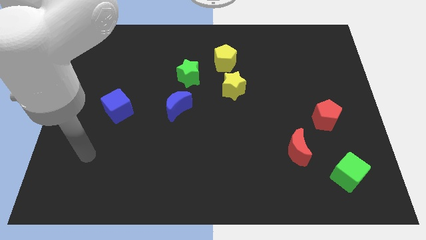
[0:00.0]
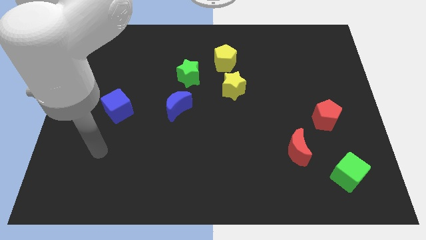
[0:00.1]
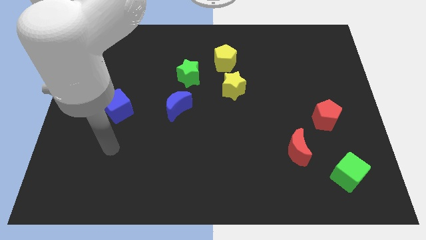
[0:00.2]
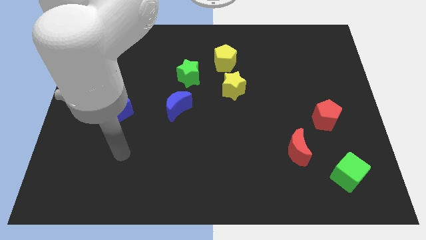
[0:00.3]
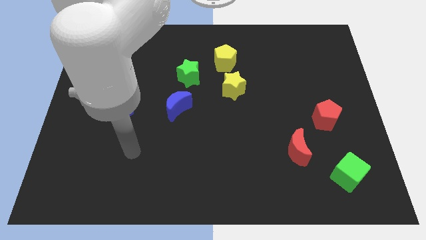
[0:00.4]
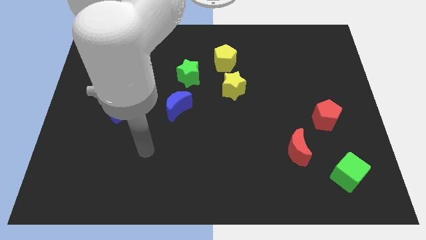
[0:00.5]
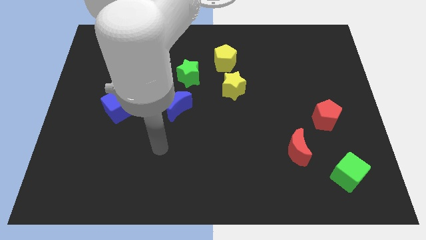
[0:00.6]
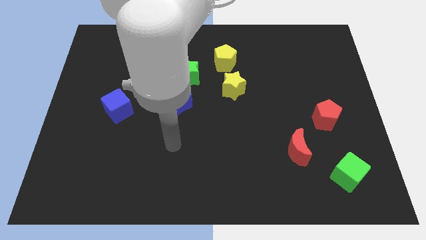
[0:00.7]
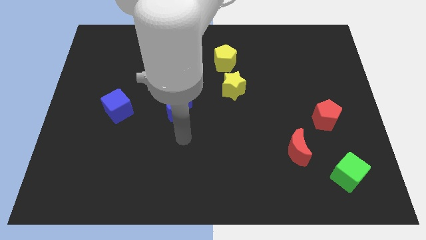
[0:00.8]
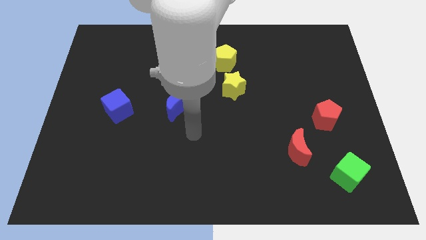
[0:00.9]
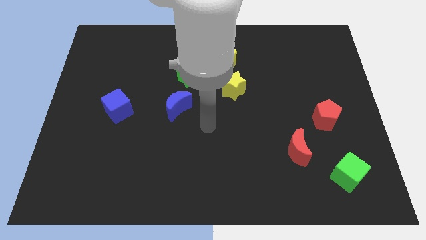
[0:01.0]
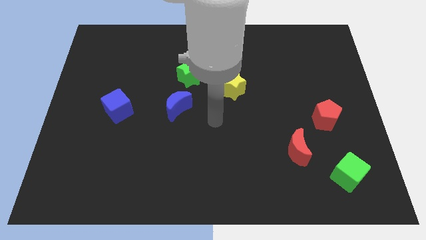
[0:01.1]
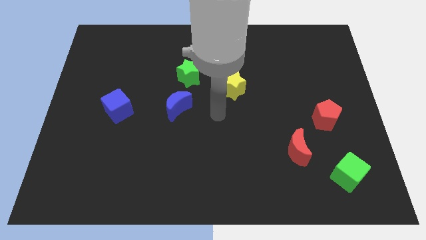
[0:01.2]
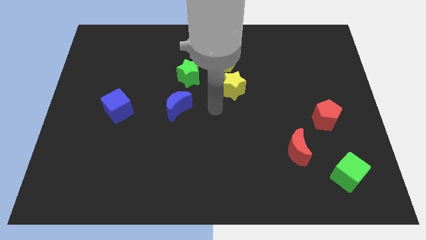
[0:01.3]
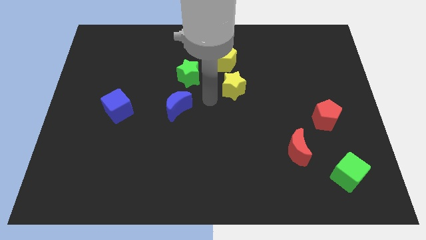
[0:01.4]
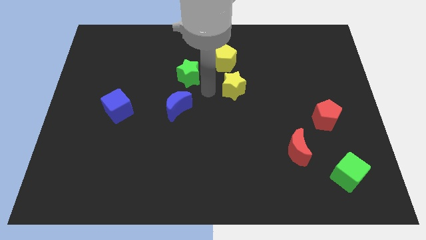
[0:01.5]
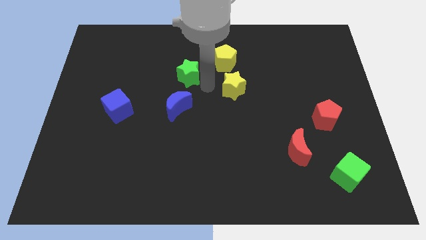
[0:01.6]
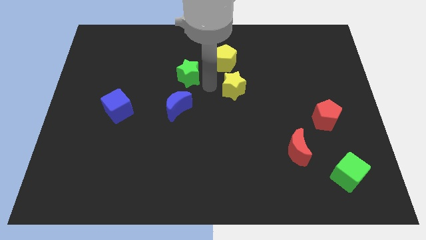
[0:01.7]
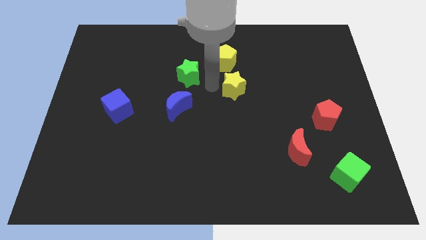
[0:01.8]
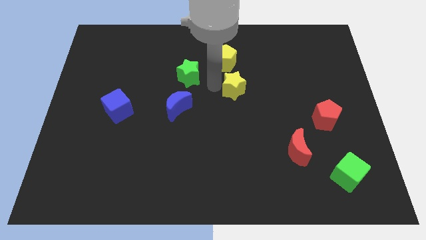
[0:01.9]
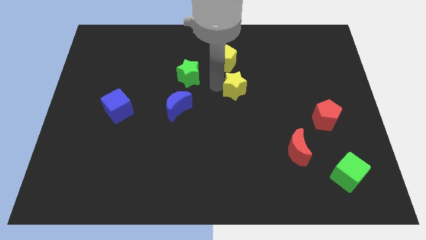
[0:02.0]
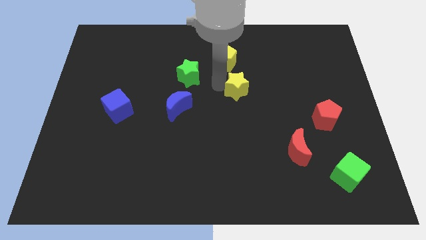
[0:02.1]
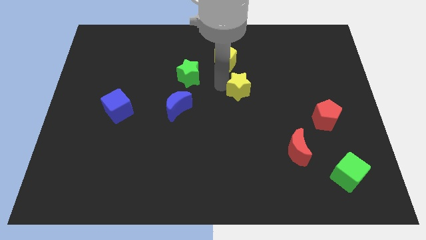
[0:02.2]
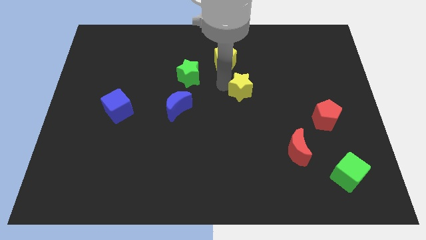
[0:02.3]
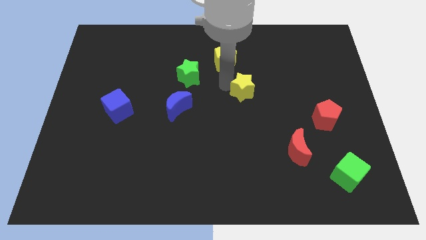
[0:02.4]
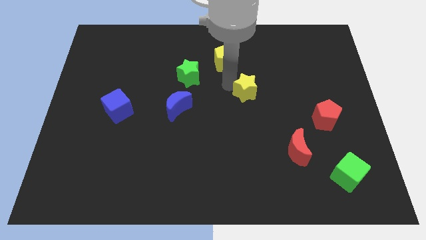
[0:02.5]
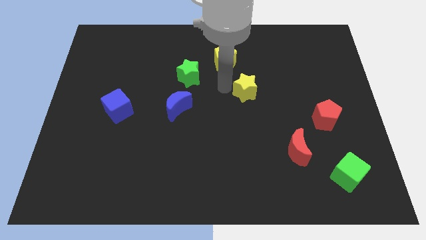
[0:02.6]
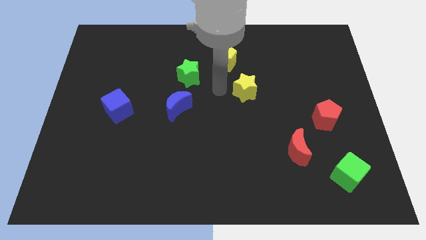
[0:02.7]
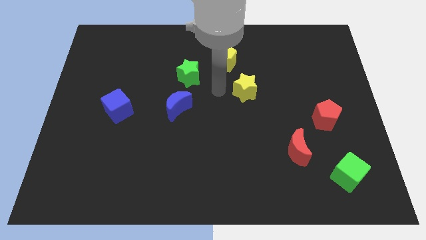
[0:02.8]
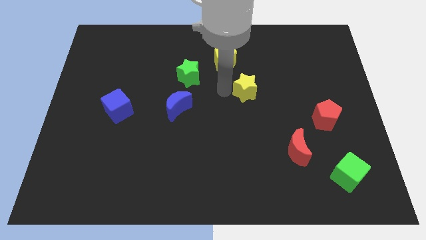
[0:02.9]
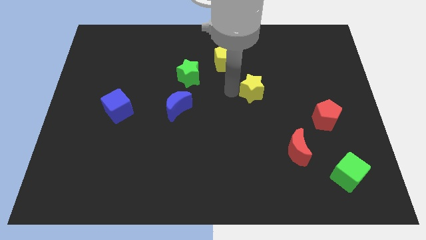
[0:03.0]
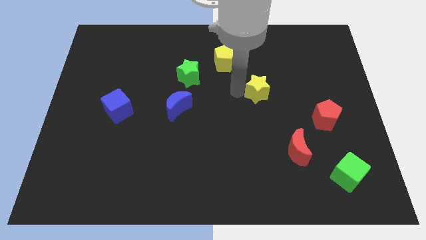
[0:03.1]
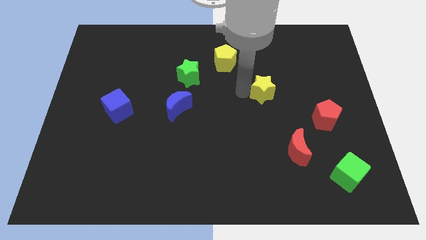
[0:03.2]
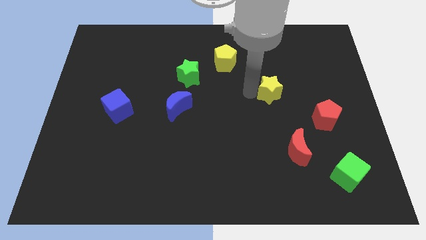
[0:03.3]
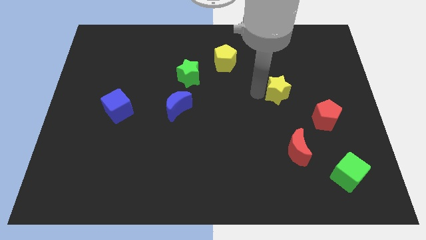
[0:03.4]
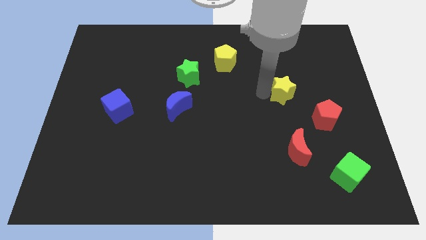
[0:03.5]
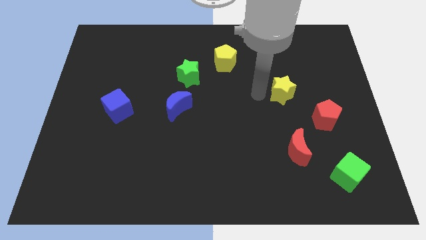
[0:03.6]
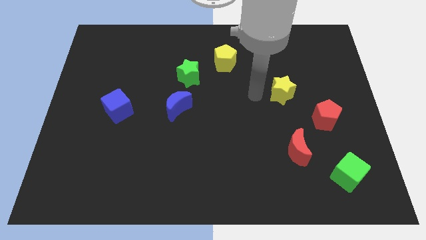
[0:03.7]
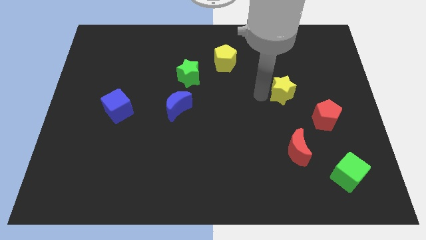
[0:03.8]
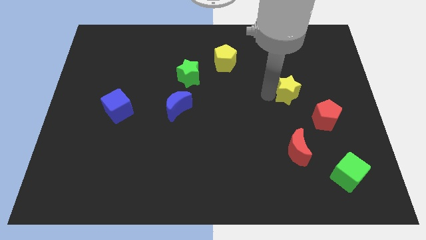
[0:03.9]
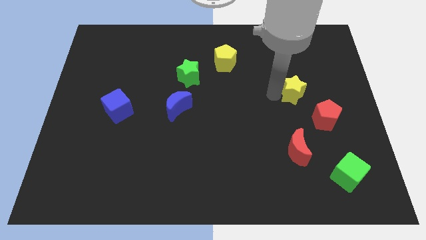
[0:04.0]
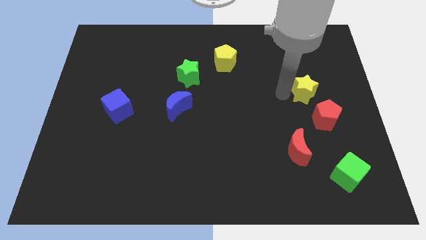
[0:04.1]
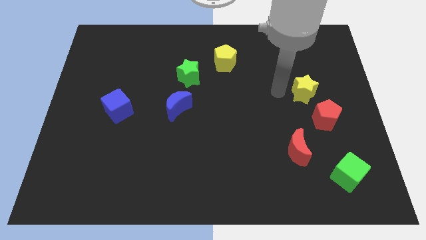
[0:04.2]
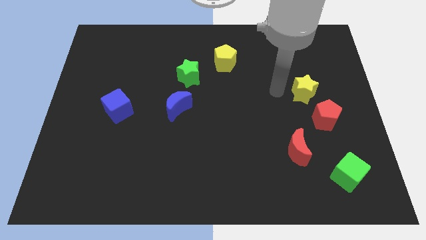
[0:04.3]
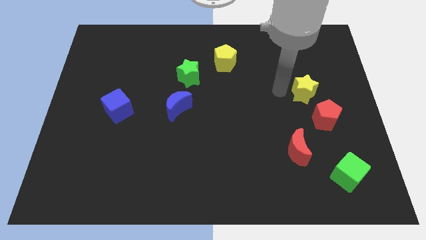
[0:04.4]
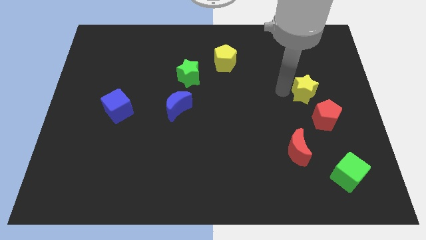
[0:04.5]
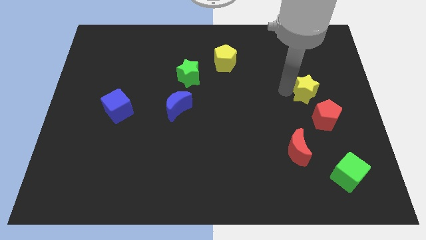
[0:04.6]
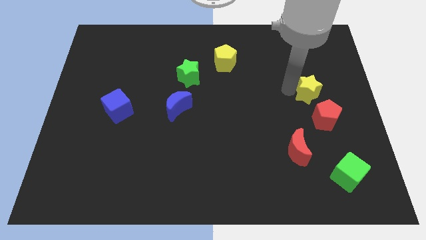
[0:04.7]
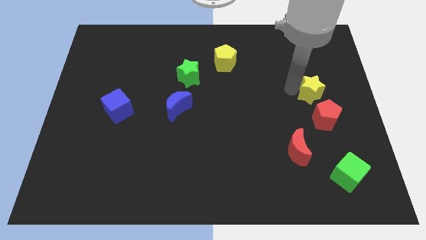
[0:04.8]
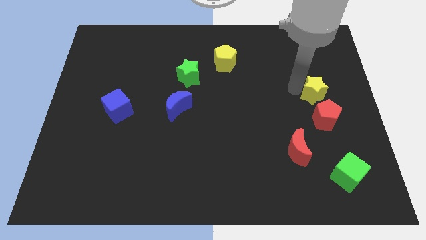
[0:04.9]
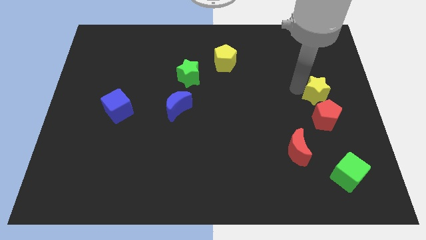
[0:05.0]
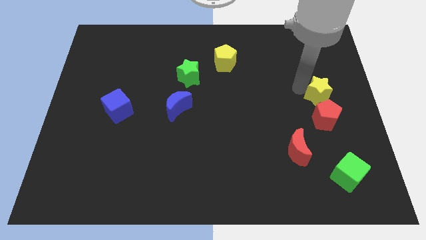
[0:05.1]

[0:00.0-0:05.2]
put the yellow star to the right side of the board

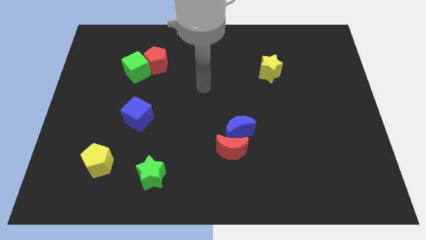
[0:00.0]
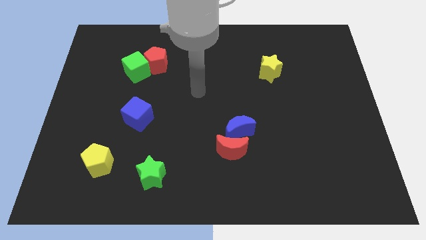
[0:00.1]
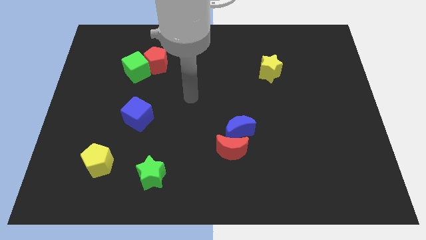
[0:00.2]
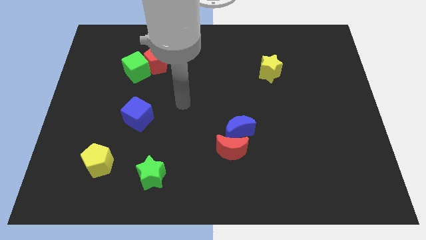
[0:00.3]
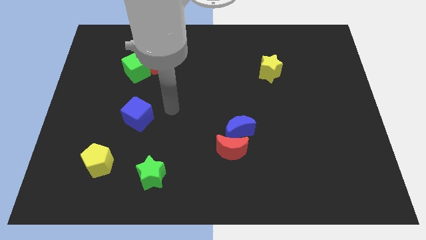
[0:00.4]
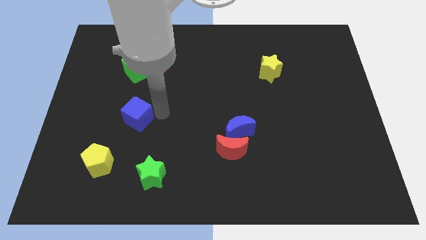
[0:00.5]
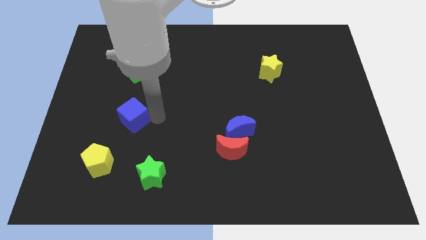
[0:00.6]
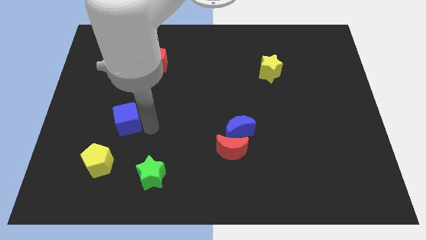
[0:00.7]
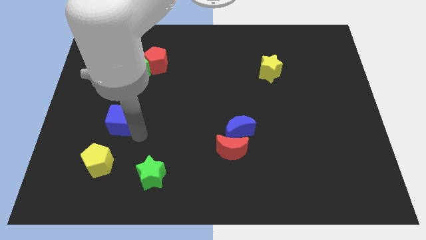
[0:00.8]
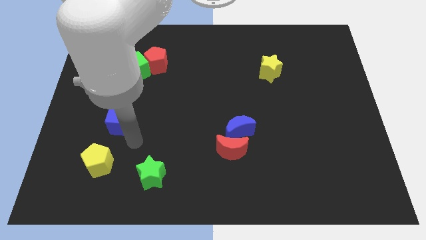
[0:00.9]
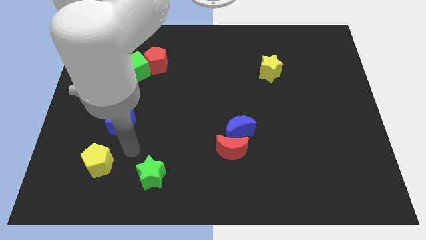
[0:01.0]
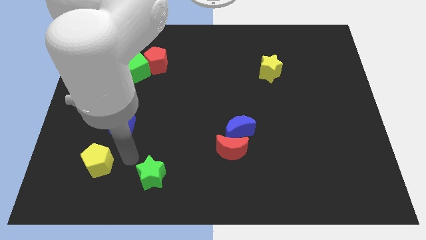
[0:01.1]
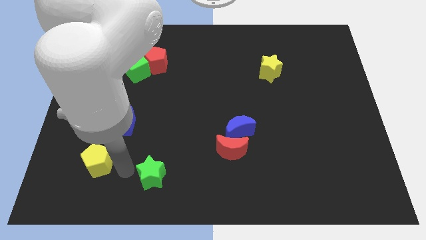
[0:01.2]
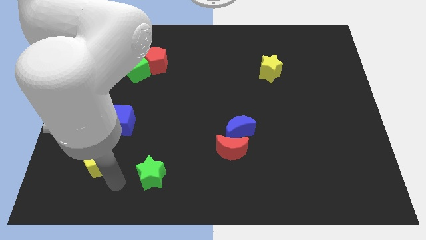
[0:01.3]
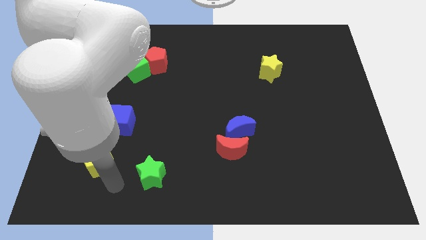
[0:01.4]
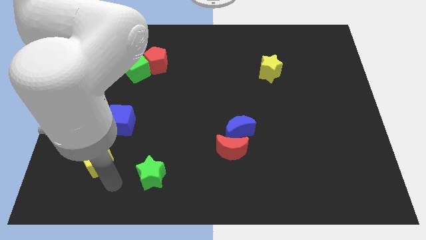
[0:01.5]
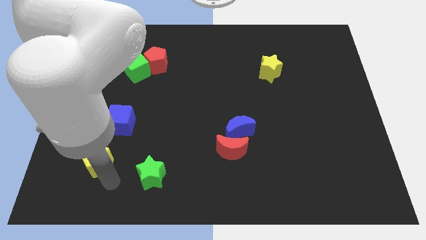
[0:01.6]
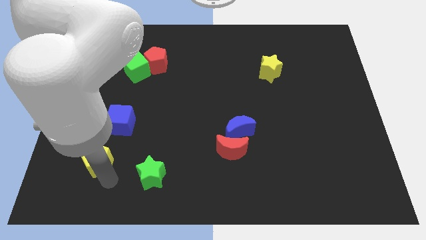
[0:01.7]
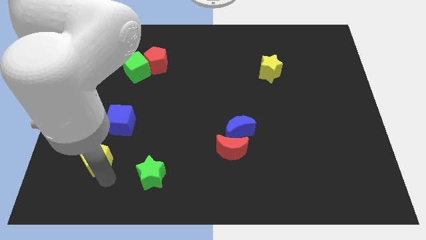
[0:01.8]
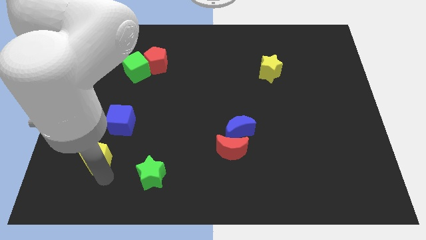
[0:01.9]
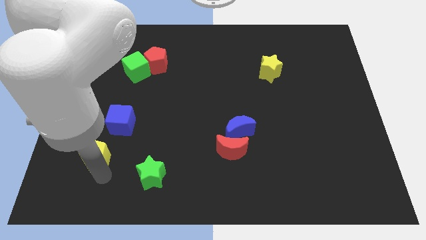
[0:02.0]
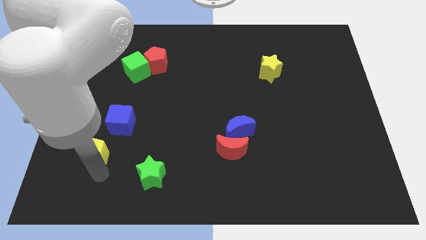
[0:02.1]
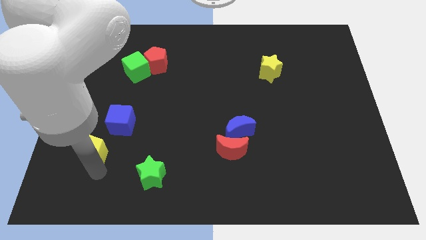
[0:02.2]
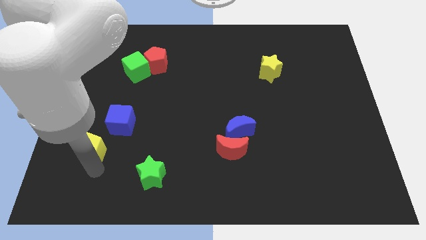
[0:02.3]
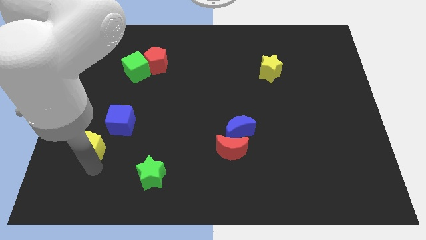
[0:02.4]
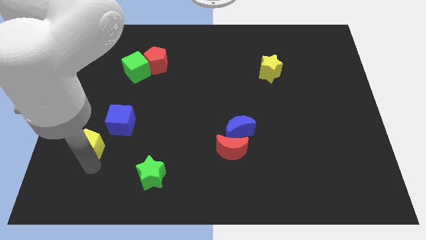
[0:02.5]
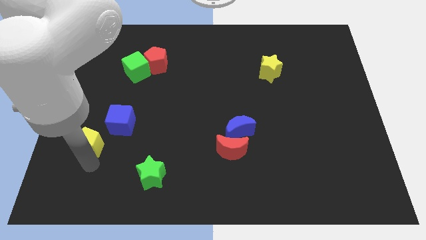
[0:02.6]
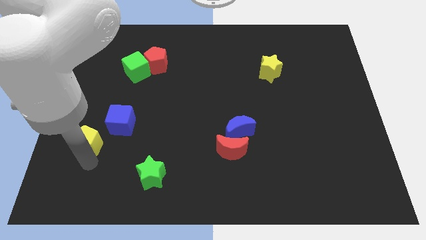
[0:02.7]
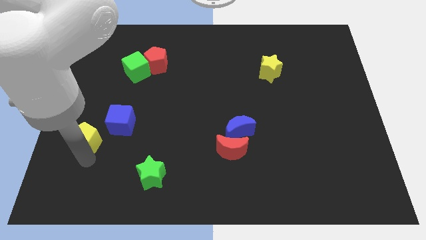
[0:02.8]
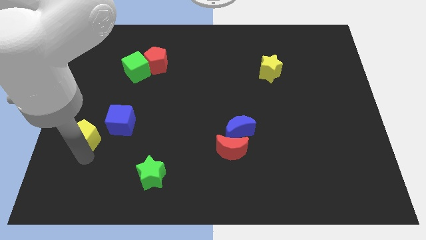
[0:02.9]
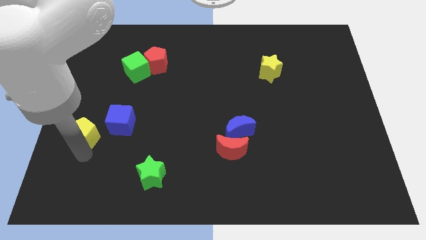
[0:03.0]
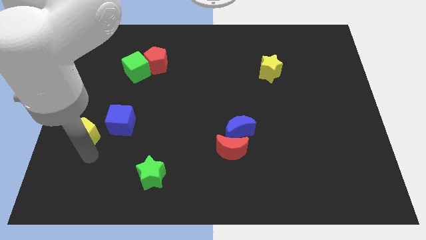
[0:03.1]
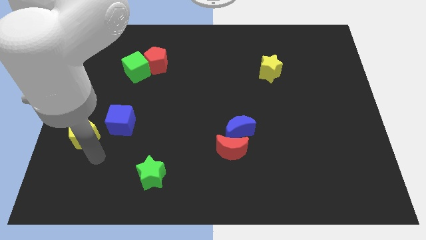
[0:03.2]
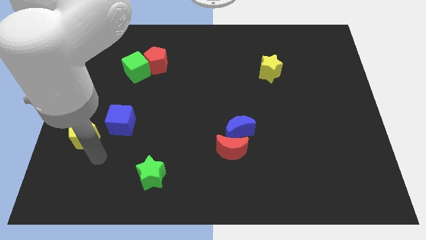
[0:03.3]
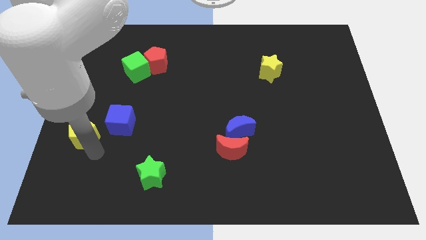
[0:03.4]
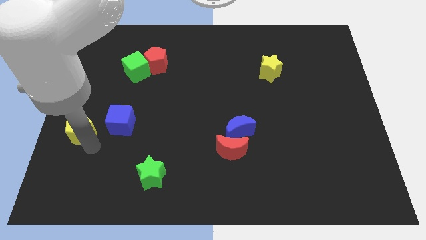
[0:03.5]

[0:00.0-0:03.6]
put the yellow pentagon to the left side
